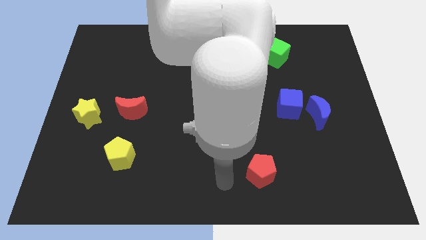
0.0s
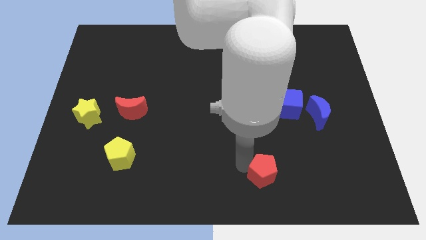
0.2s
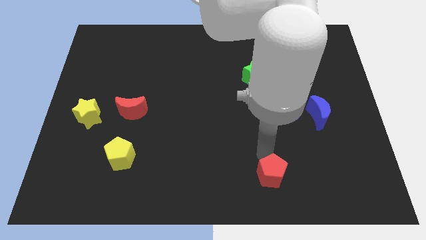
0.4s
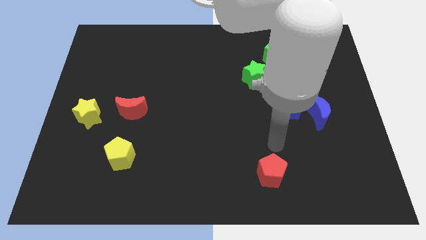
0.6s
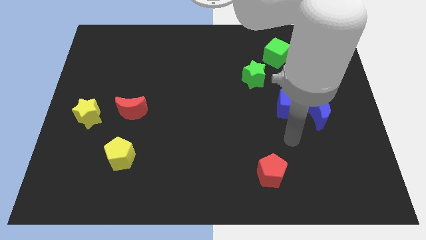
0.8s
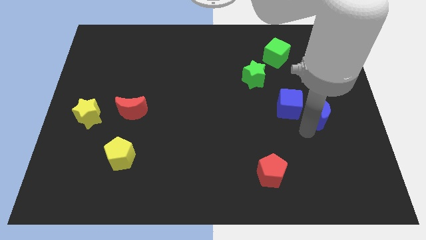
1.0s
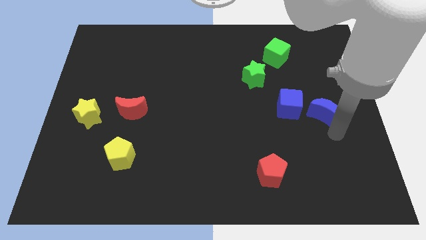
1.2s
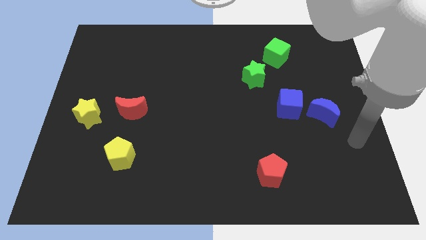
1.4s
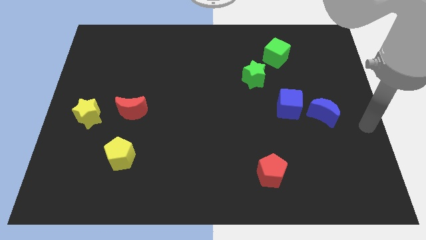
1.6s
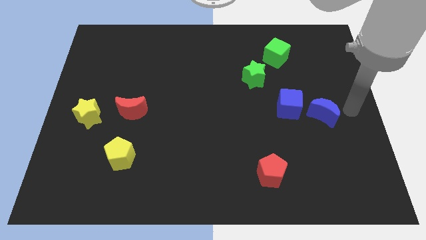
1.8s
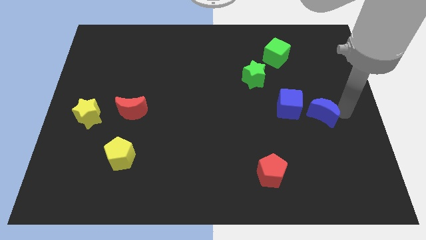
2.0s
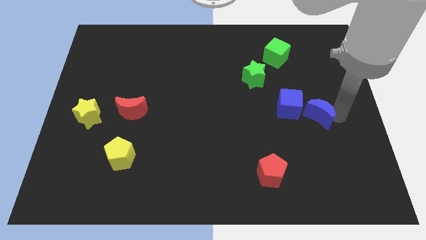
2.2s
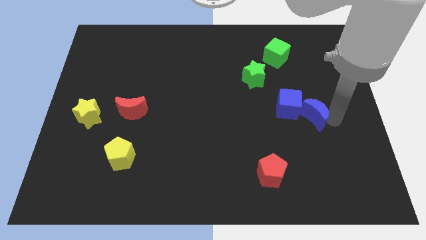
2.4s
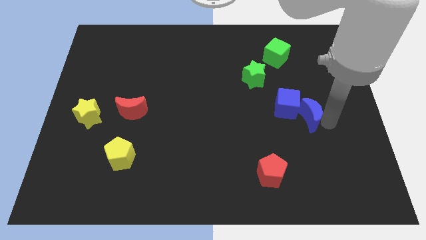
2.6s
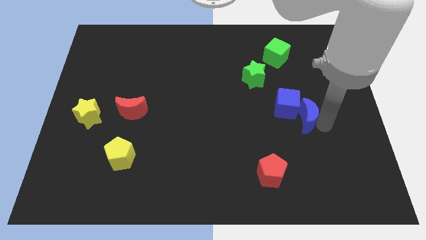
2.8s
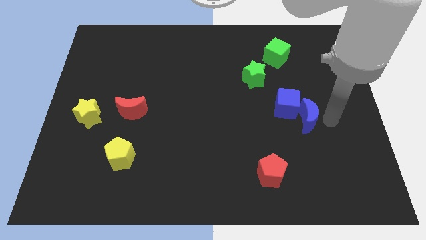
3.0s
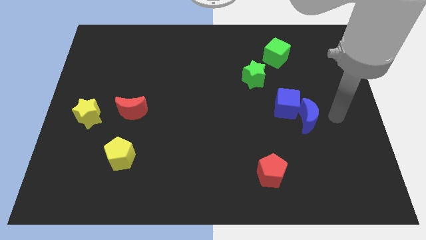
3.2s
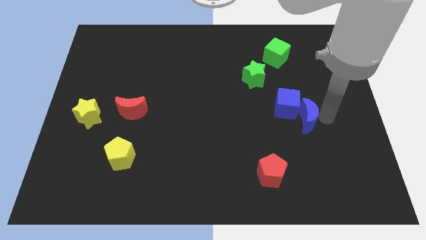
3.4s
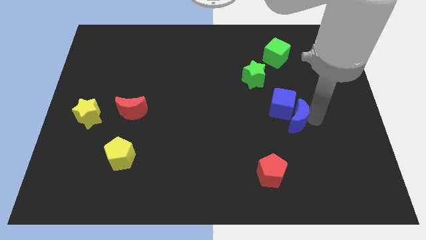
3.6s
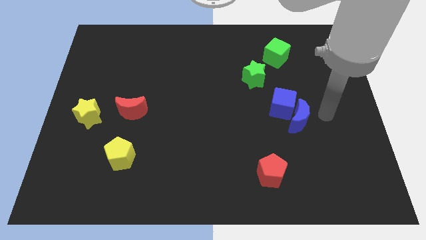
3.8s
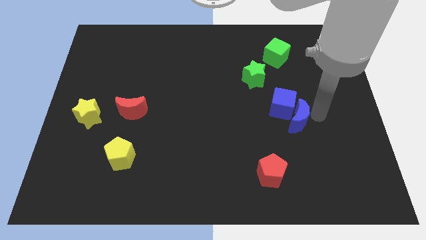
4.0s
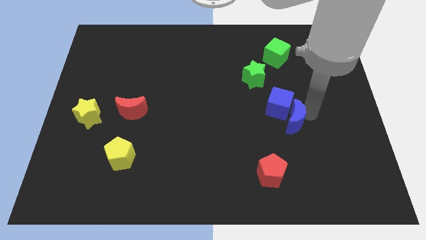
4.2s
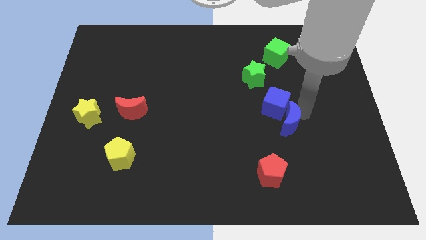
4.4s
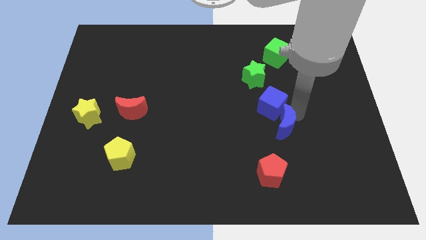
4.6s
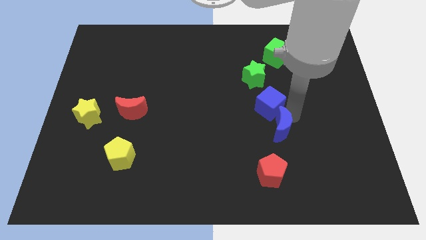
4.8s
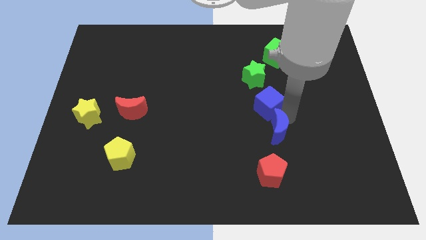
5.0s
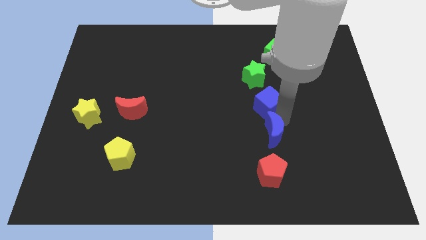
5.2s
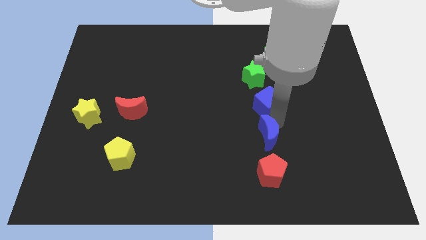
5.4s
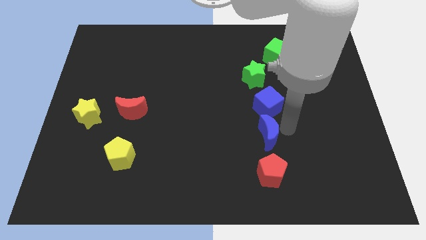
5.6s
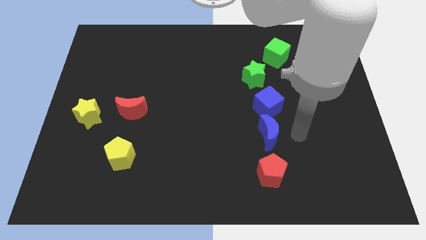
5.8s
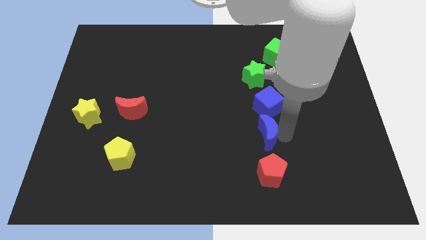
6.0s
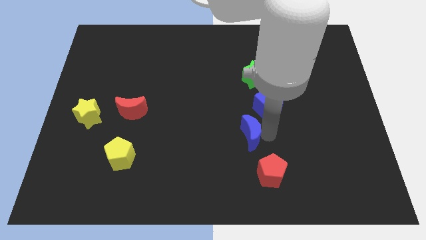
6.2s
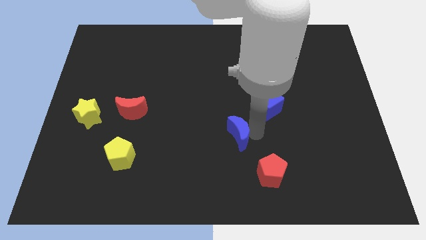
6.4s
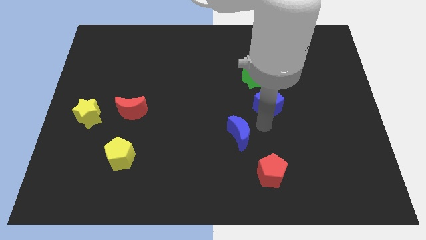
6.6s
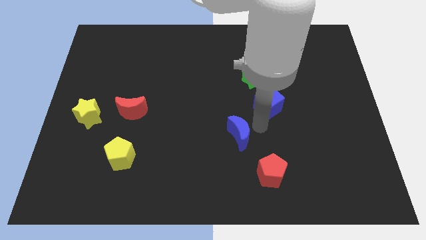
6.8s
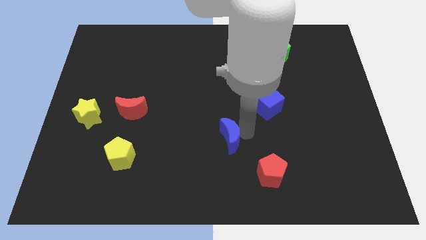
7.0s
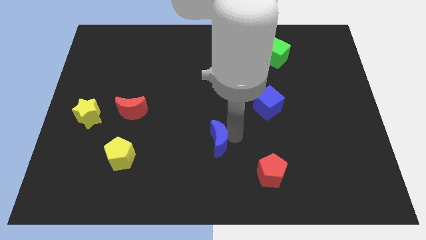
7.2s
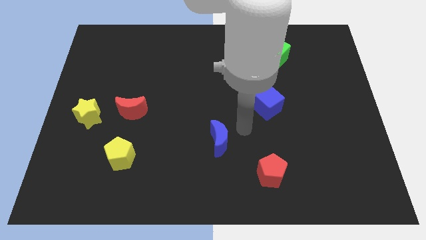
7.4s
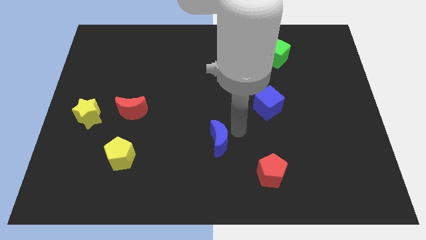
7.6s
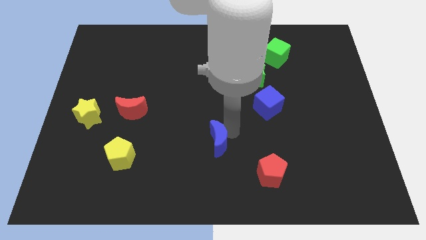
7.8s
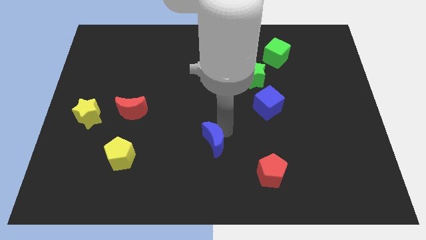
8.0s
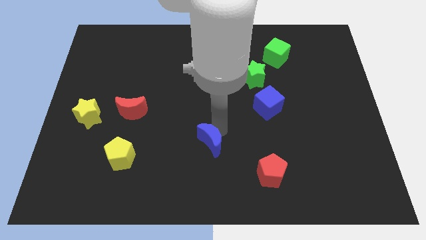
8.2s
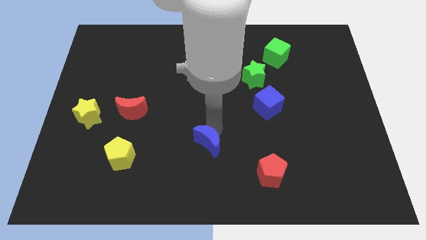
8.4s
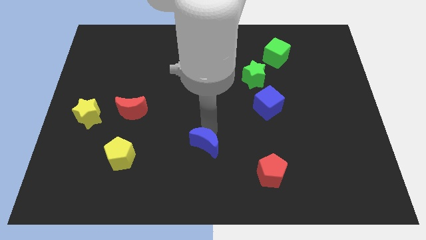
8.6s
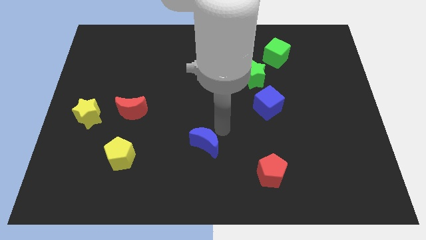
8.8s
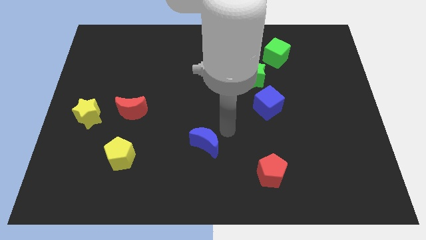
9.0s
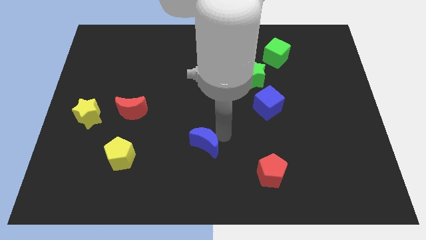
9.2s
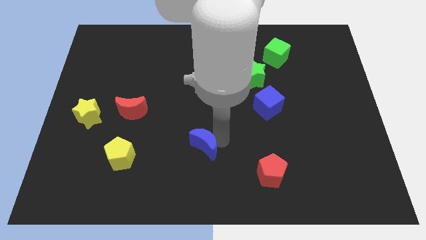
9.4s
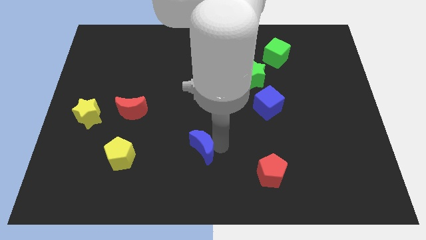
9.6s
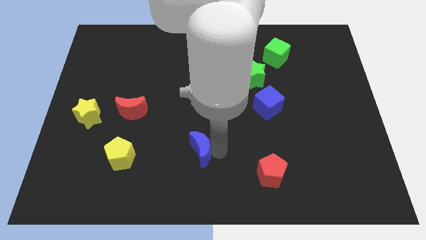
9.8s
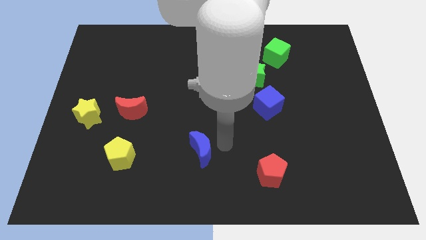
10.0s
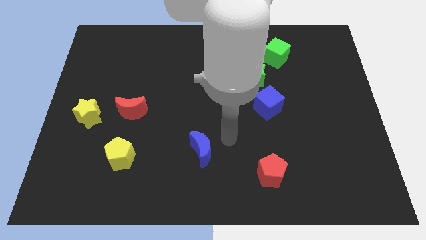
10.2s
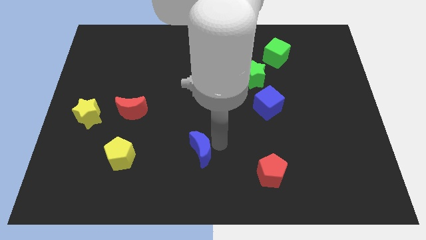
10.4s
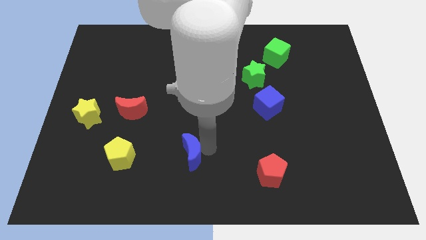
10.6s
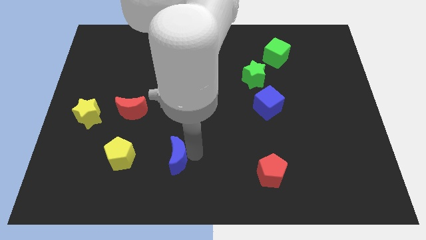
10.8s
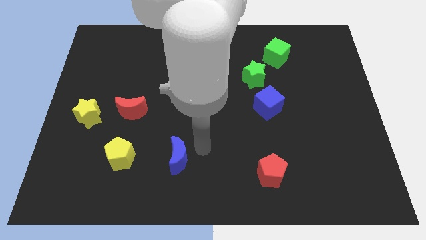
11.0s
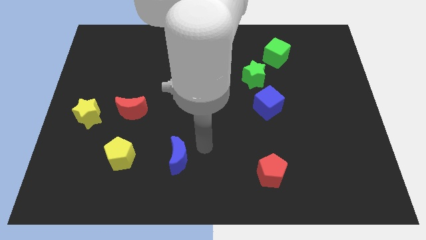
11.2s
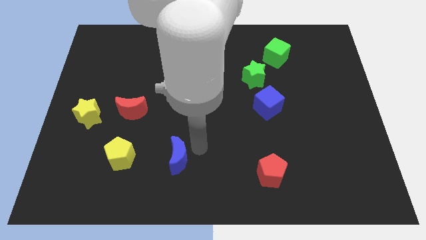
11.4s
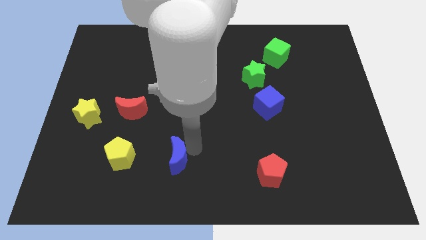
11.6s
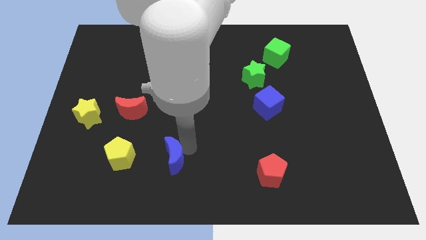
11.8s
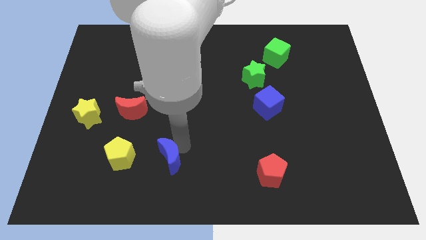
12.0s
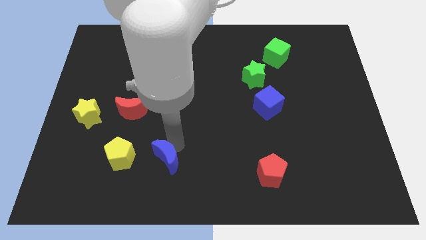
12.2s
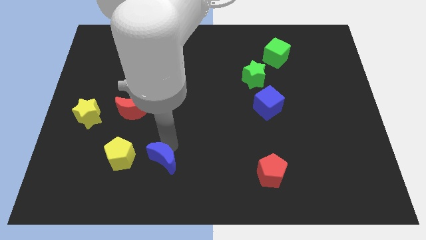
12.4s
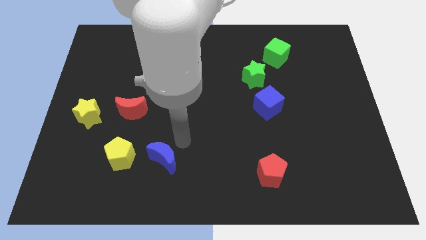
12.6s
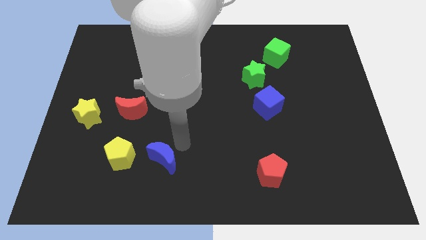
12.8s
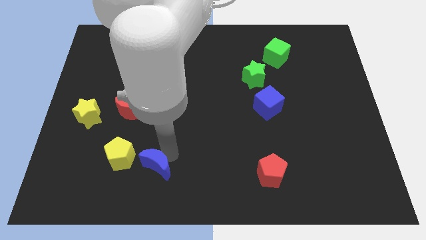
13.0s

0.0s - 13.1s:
put the blue moon diagonally down and to the right of the yellow pentagon

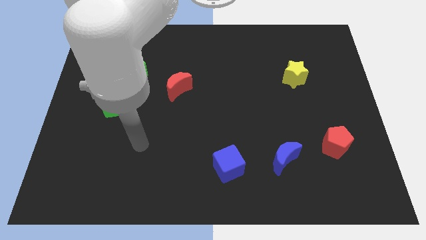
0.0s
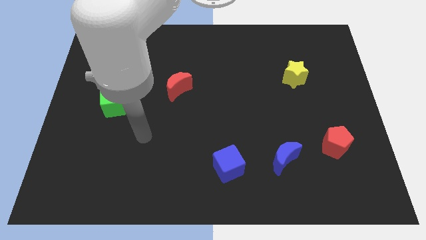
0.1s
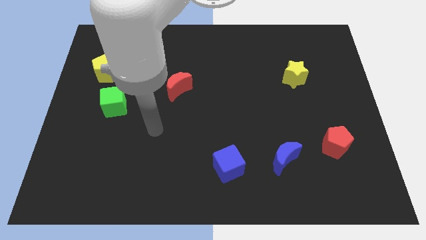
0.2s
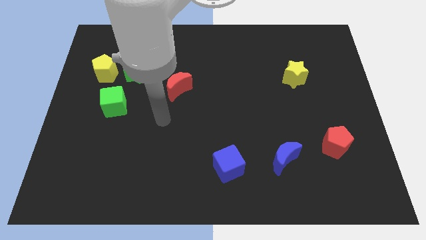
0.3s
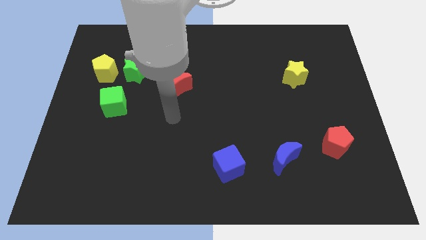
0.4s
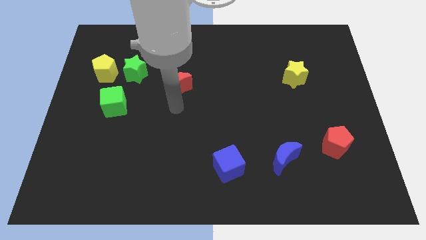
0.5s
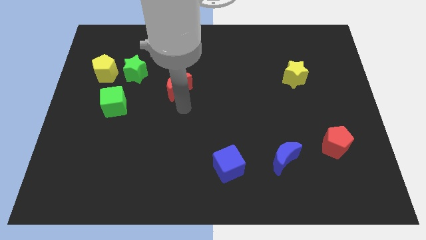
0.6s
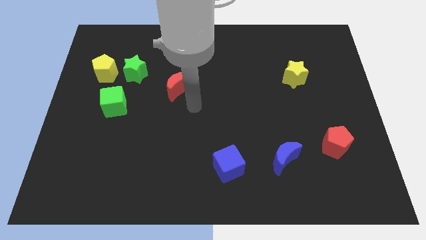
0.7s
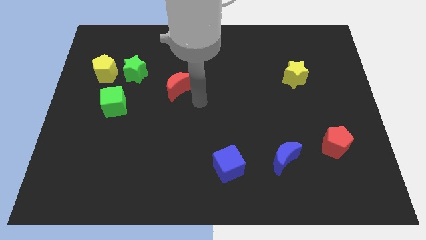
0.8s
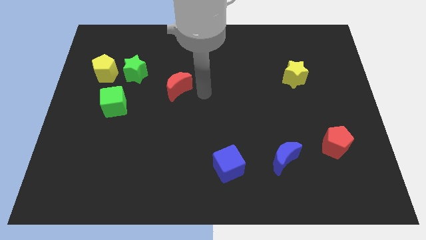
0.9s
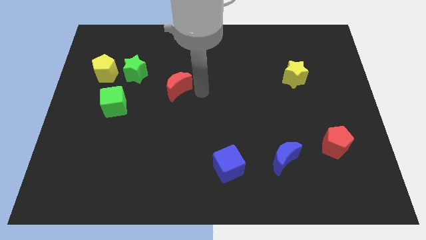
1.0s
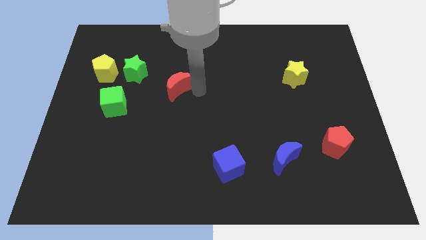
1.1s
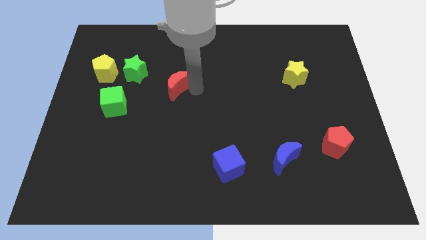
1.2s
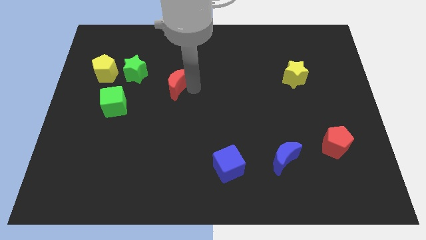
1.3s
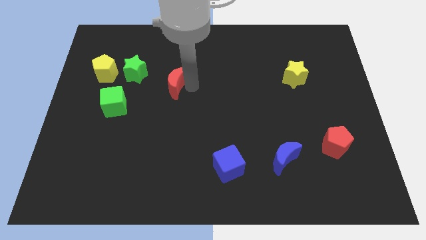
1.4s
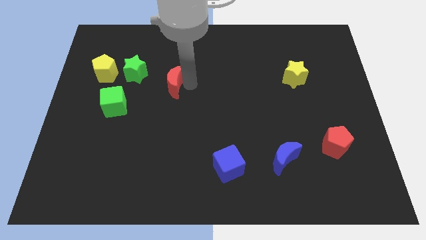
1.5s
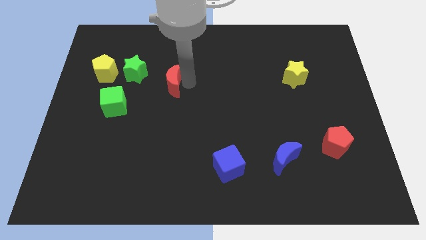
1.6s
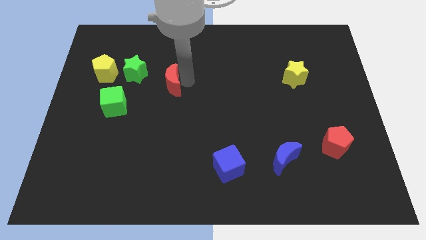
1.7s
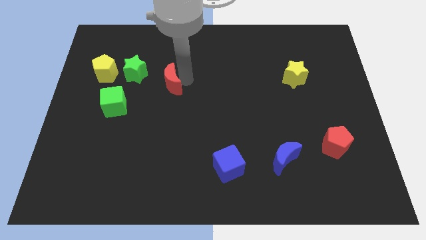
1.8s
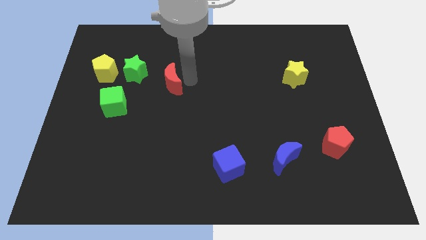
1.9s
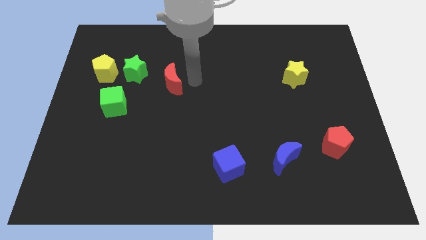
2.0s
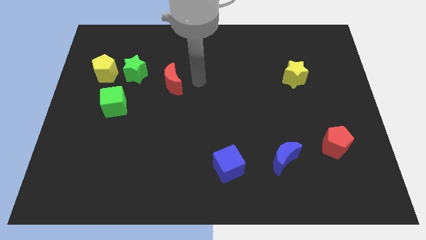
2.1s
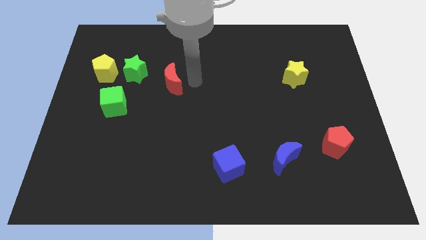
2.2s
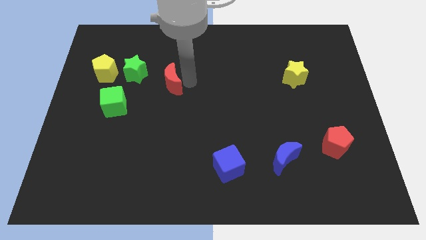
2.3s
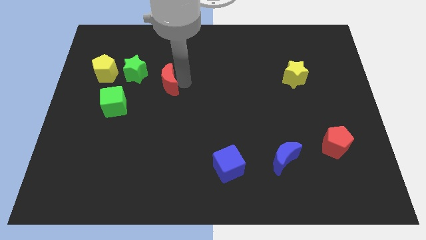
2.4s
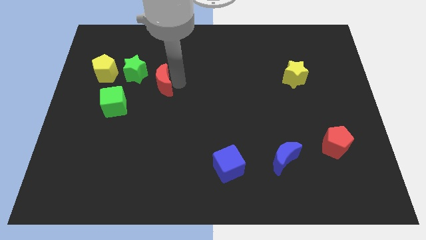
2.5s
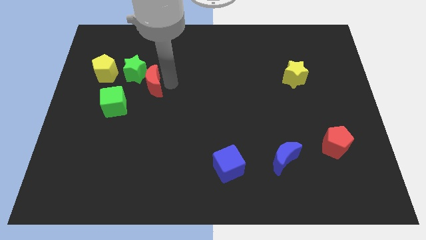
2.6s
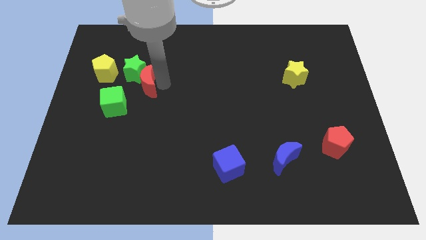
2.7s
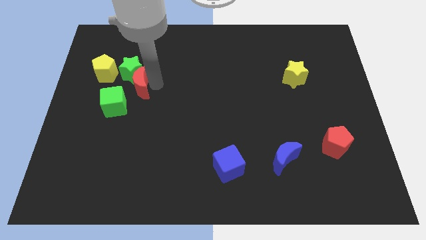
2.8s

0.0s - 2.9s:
slide the red moon to the bottom right of the yellow pentagon
